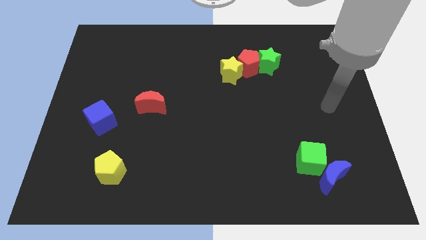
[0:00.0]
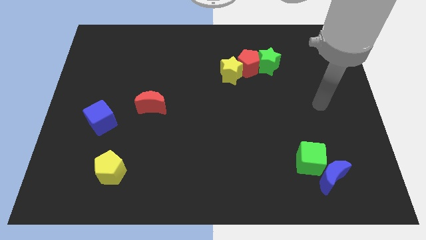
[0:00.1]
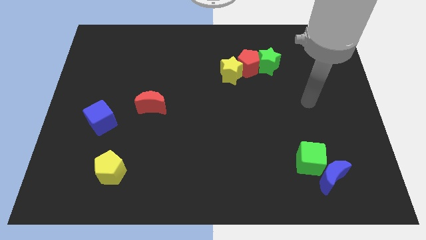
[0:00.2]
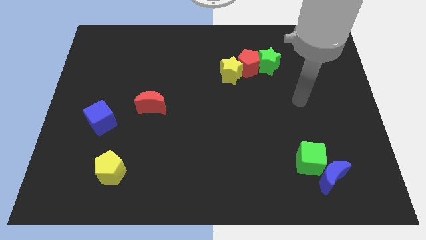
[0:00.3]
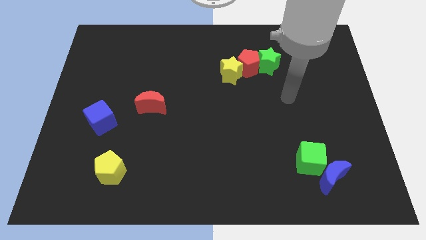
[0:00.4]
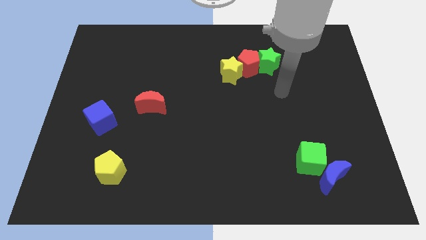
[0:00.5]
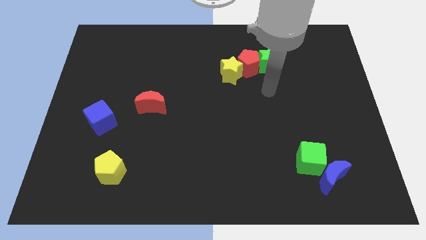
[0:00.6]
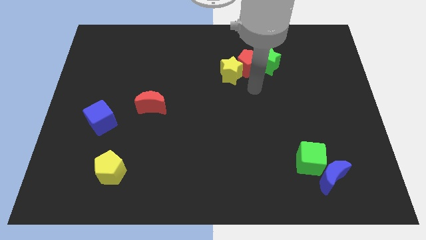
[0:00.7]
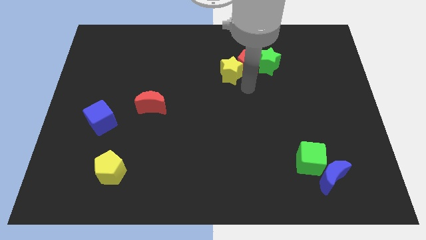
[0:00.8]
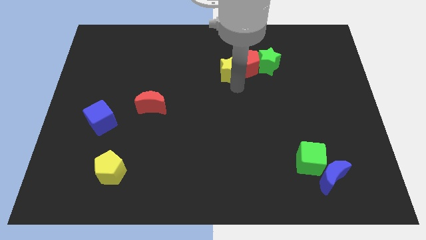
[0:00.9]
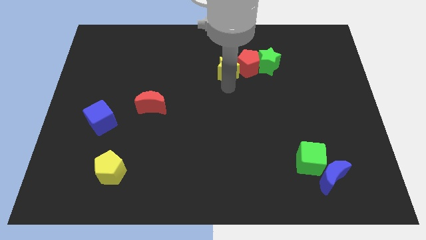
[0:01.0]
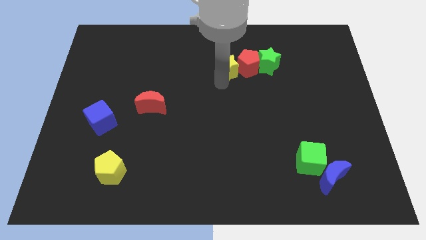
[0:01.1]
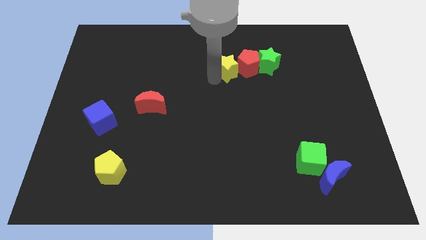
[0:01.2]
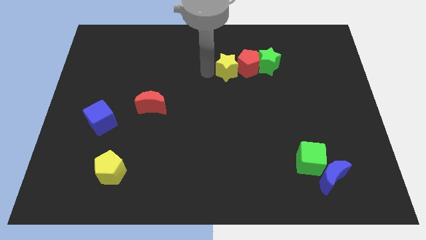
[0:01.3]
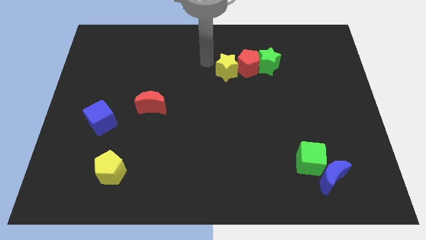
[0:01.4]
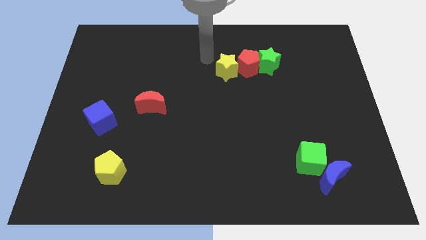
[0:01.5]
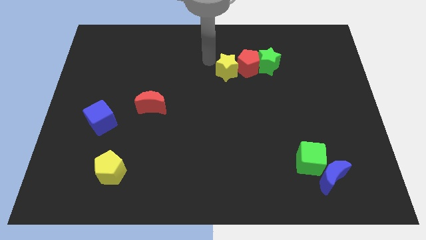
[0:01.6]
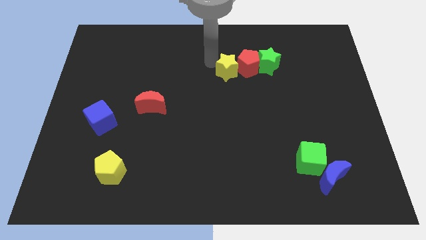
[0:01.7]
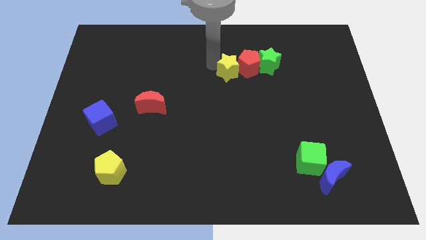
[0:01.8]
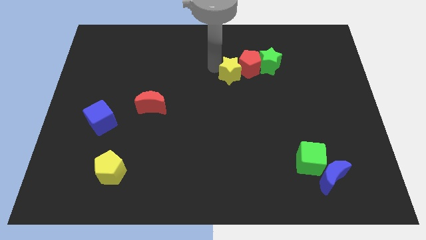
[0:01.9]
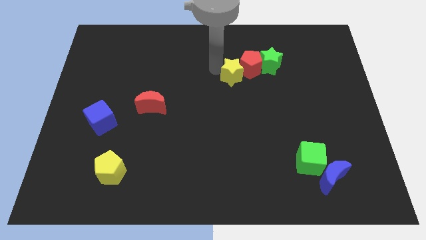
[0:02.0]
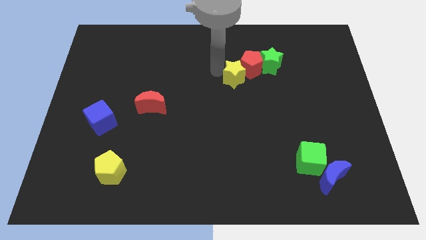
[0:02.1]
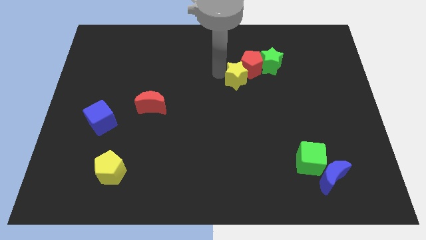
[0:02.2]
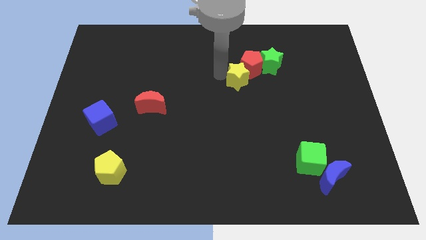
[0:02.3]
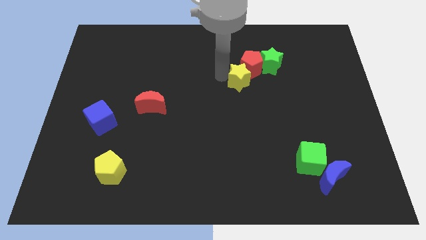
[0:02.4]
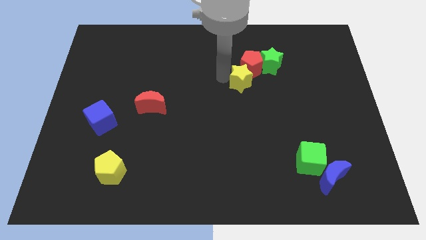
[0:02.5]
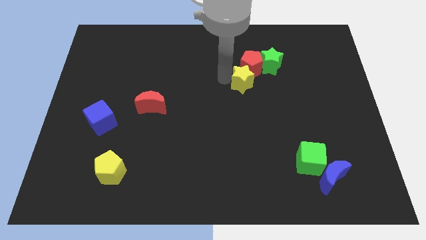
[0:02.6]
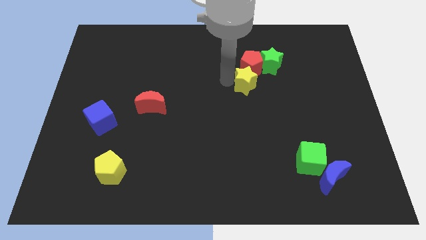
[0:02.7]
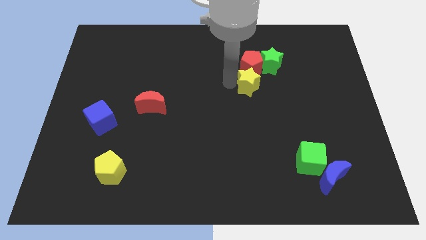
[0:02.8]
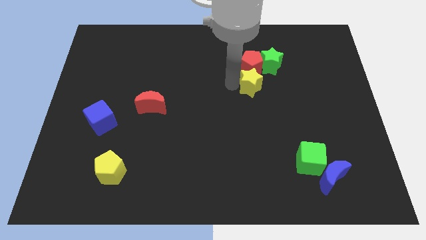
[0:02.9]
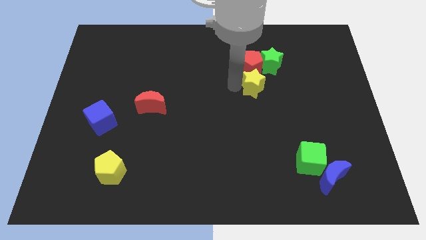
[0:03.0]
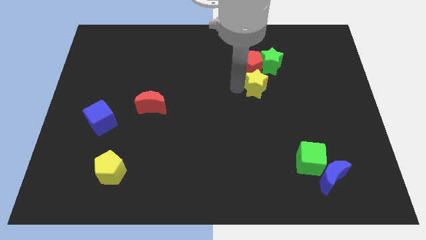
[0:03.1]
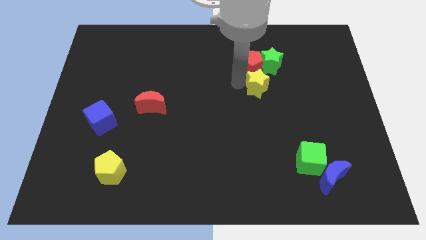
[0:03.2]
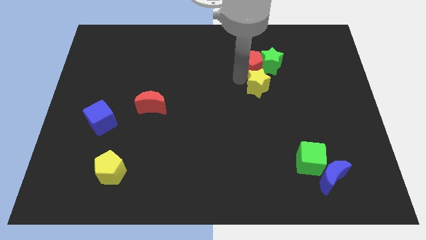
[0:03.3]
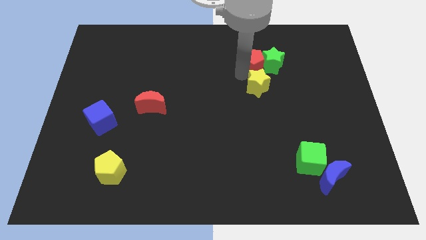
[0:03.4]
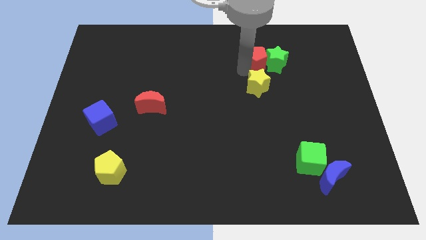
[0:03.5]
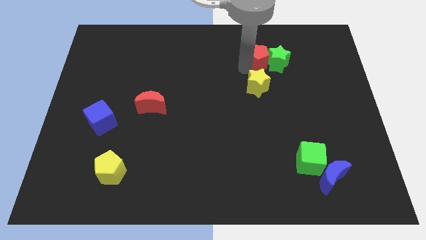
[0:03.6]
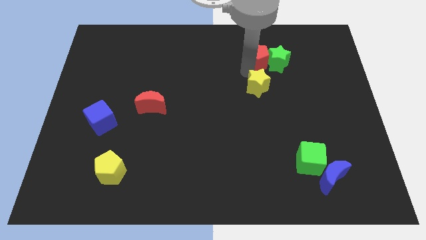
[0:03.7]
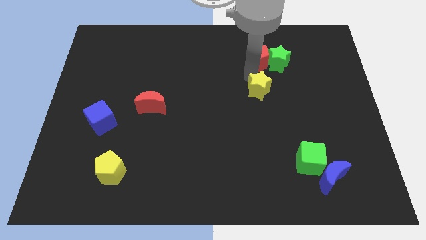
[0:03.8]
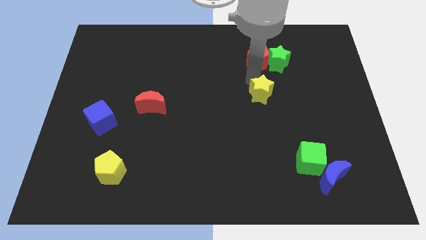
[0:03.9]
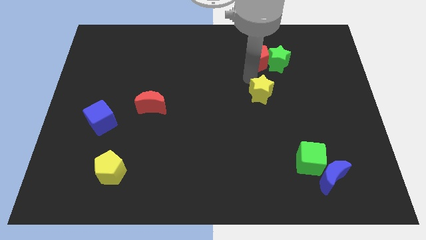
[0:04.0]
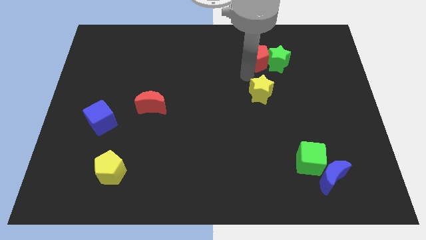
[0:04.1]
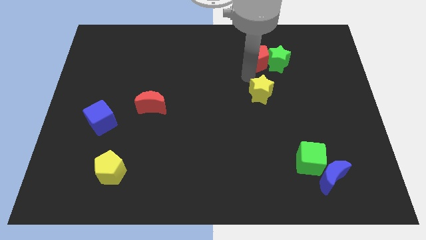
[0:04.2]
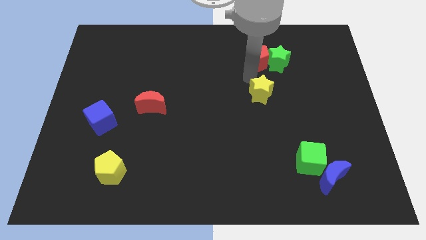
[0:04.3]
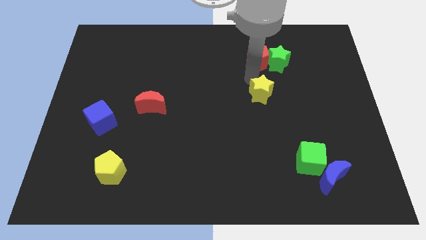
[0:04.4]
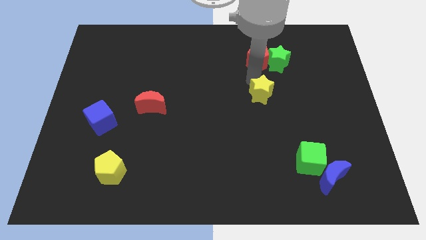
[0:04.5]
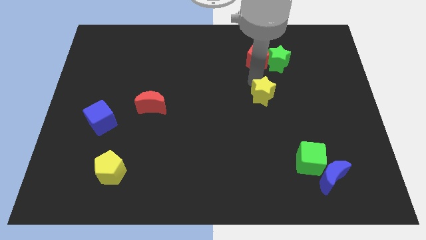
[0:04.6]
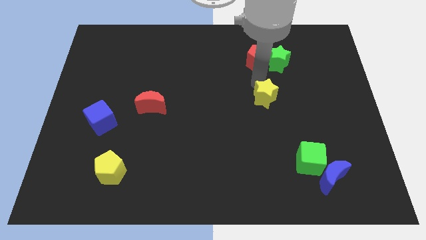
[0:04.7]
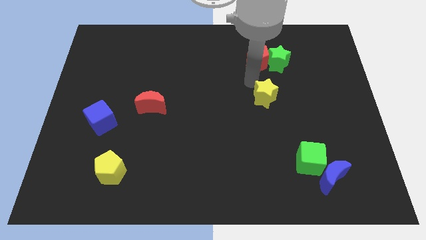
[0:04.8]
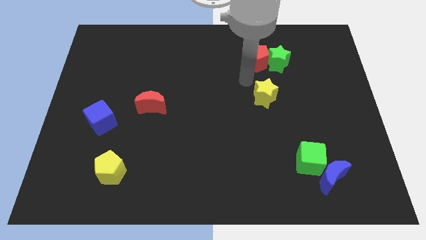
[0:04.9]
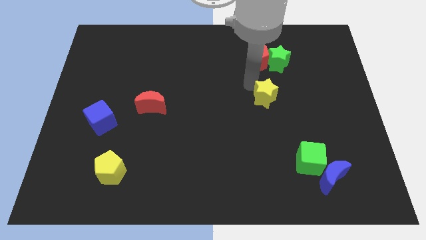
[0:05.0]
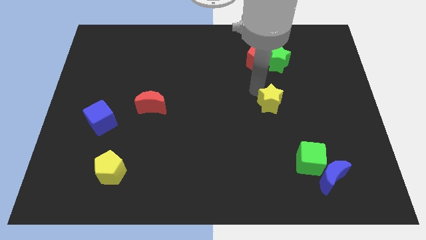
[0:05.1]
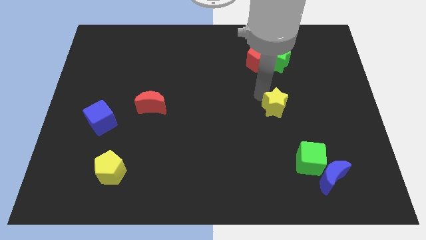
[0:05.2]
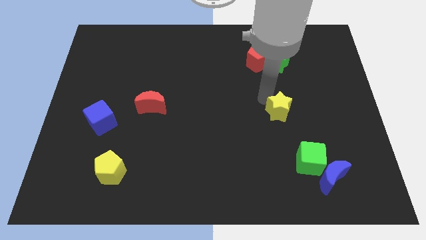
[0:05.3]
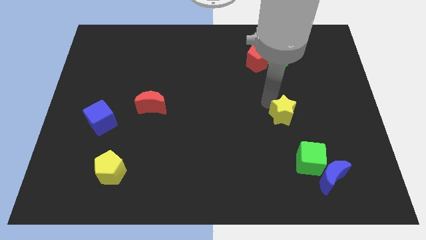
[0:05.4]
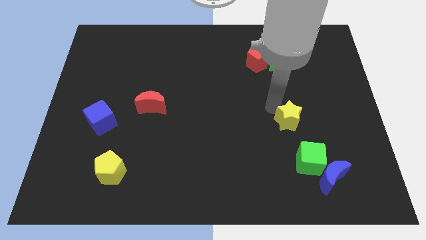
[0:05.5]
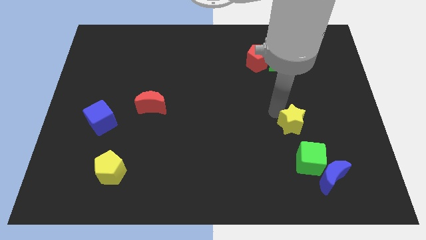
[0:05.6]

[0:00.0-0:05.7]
slide the yellow star downwards and to the right diagonally

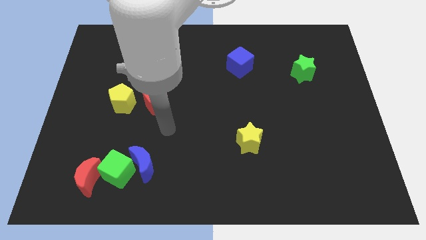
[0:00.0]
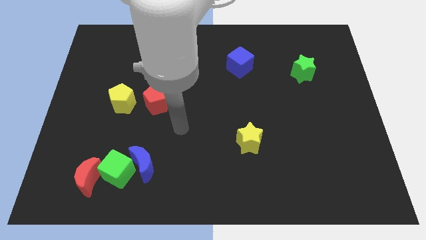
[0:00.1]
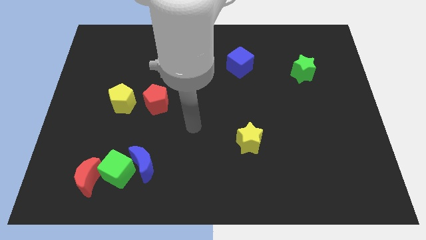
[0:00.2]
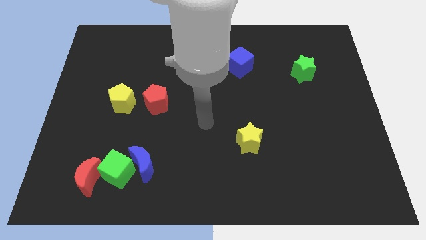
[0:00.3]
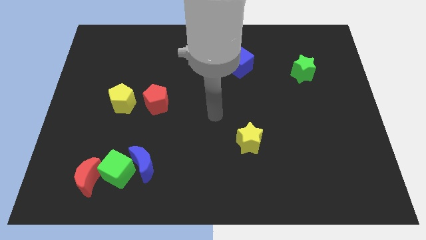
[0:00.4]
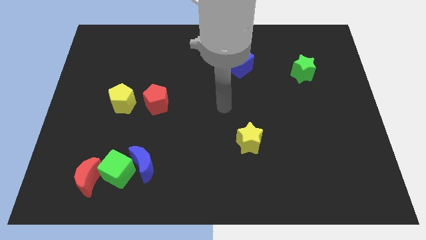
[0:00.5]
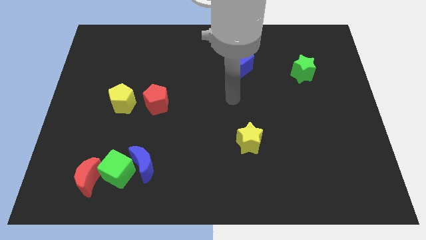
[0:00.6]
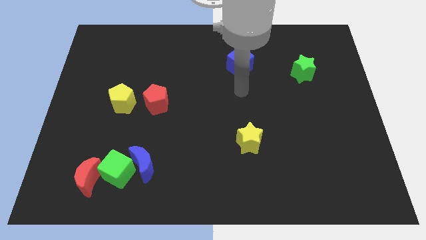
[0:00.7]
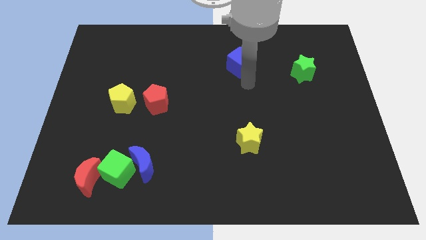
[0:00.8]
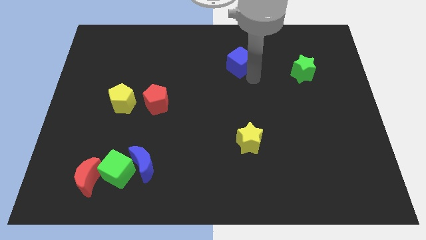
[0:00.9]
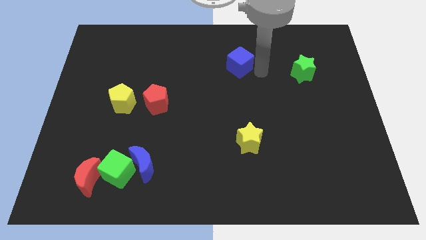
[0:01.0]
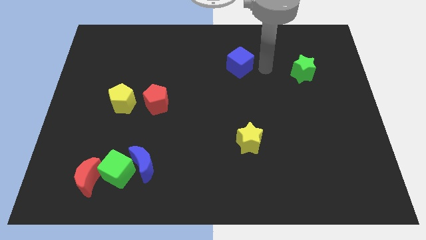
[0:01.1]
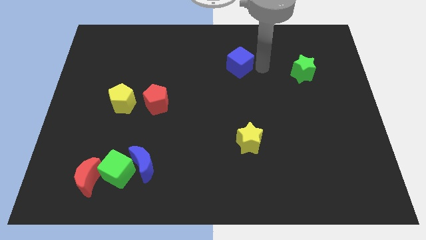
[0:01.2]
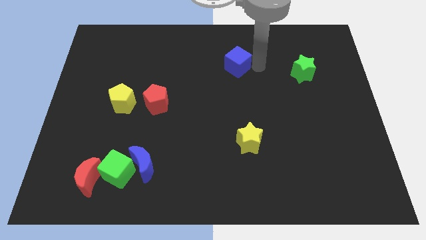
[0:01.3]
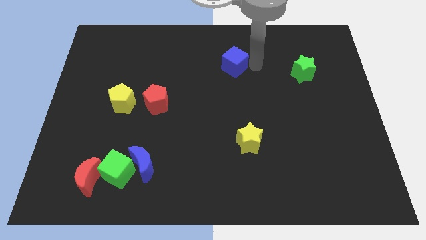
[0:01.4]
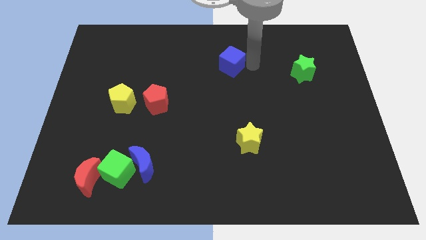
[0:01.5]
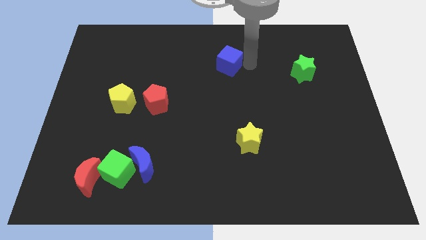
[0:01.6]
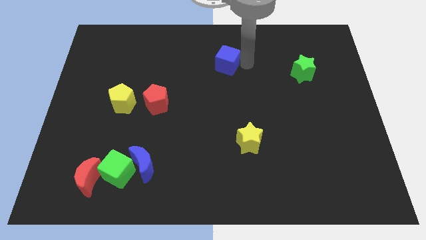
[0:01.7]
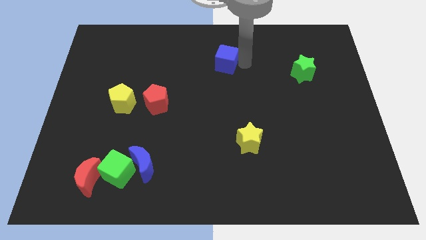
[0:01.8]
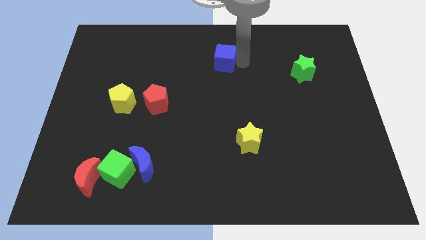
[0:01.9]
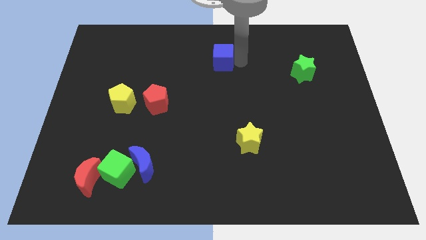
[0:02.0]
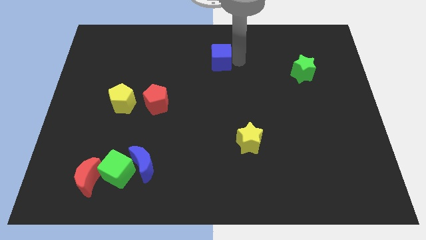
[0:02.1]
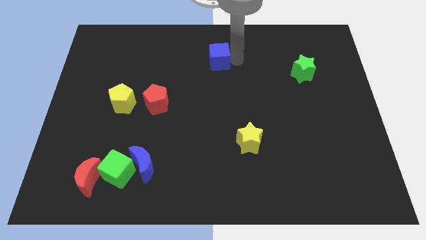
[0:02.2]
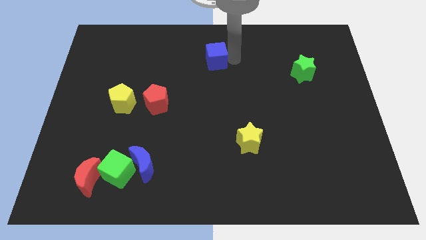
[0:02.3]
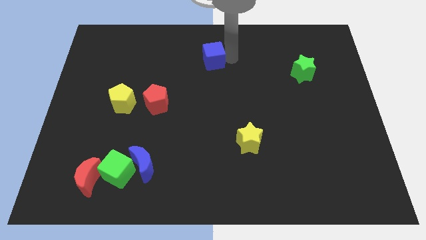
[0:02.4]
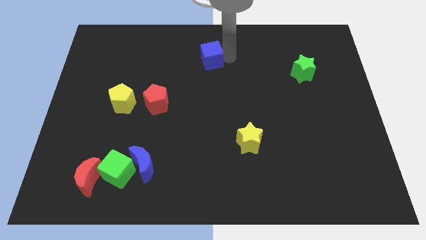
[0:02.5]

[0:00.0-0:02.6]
slightly move the blue cube to the left
